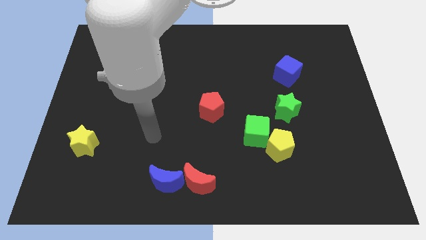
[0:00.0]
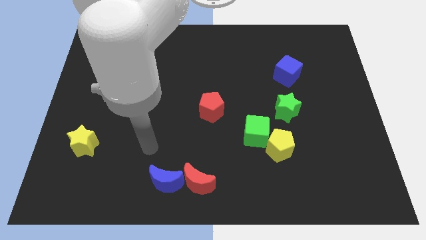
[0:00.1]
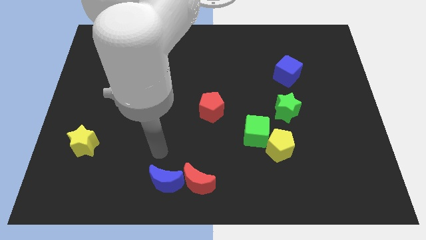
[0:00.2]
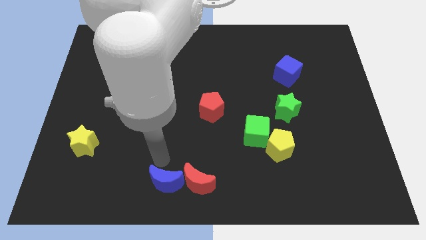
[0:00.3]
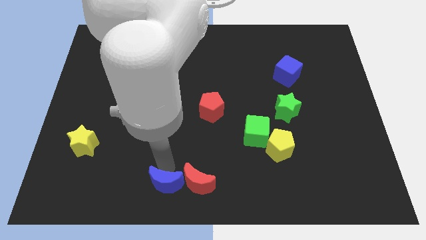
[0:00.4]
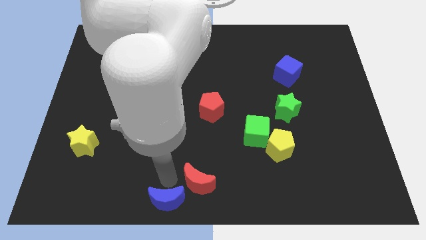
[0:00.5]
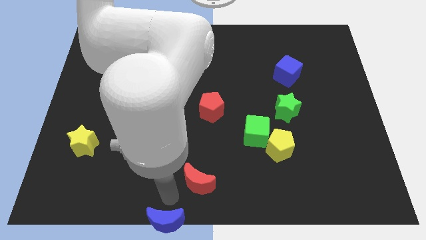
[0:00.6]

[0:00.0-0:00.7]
separate the red moon from the blue moon

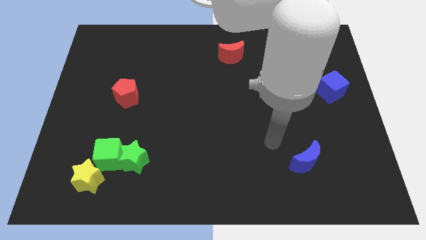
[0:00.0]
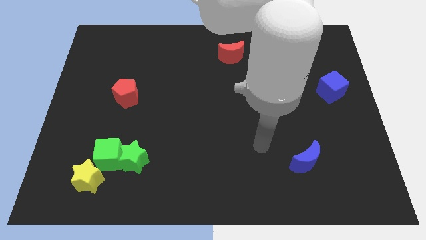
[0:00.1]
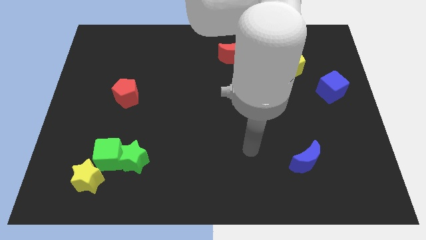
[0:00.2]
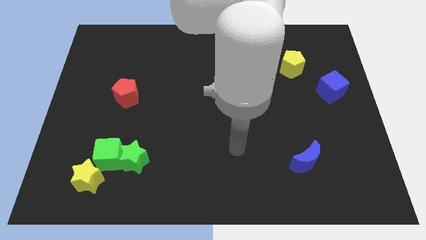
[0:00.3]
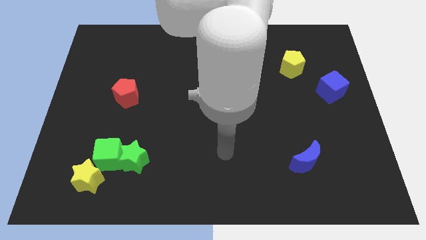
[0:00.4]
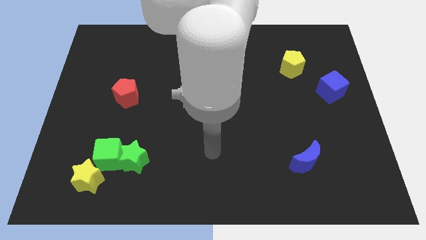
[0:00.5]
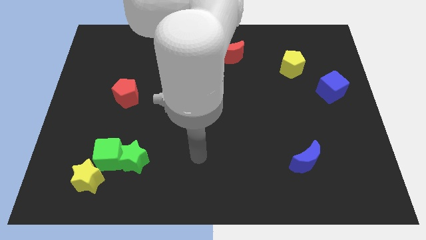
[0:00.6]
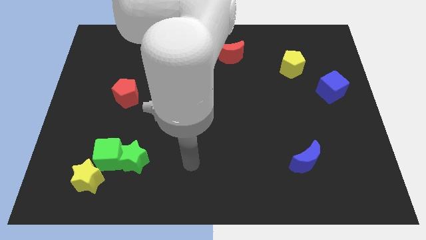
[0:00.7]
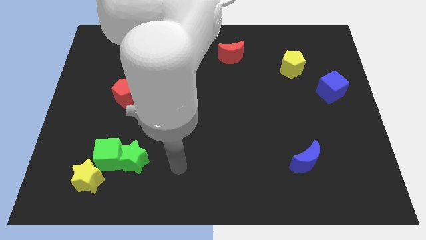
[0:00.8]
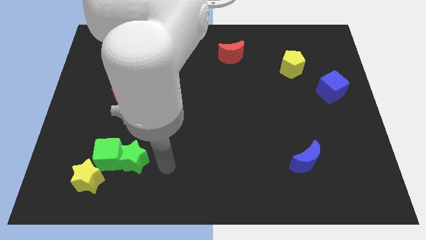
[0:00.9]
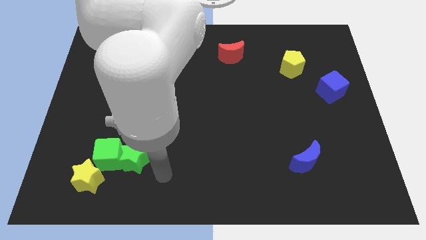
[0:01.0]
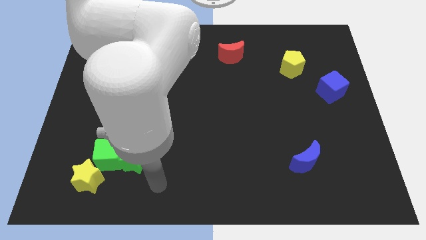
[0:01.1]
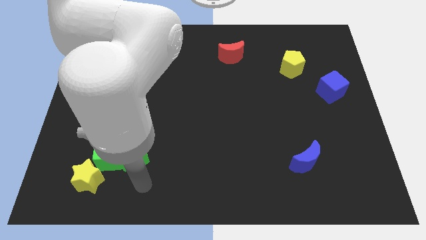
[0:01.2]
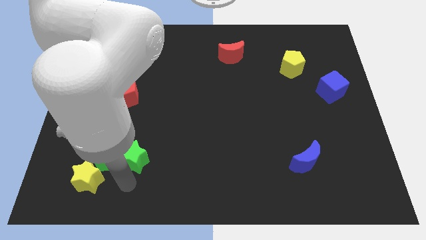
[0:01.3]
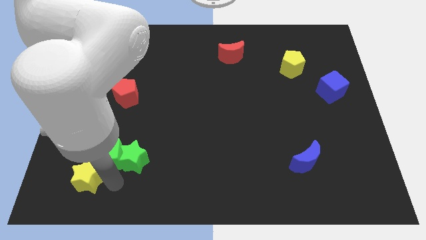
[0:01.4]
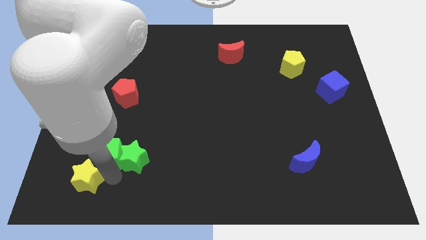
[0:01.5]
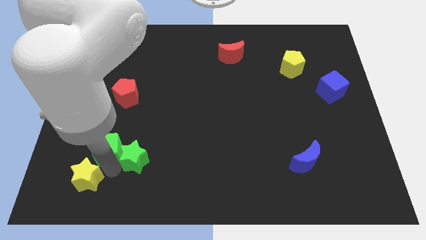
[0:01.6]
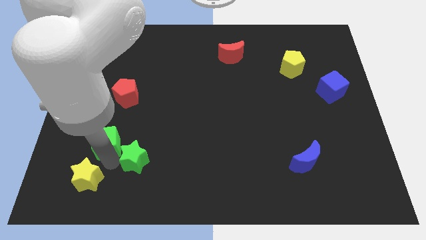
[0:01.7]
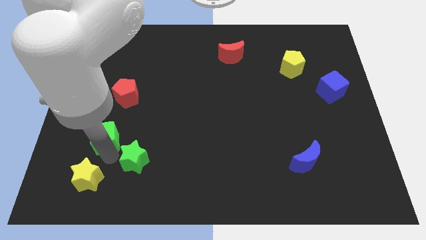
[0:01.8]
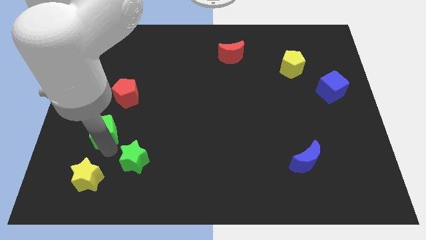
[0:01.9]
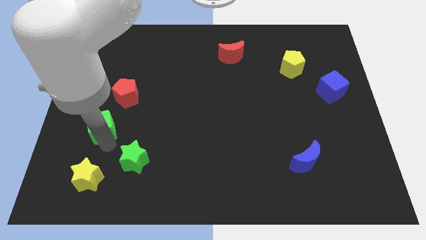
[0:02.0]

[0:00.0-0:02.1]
move the green cube away from the green star and yellow star

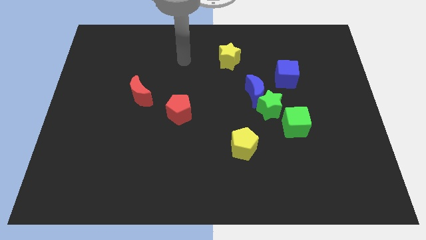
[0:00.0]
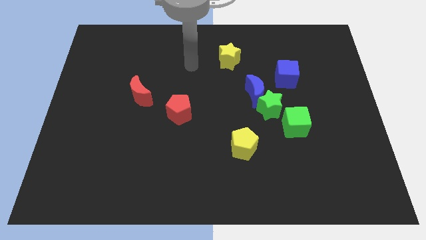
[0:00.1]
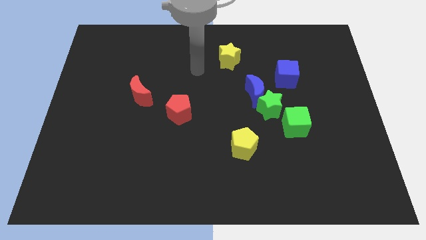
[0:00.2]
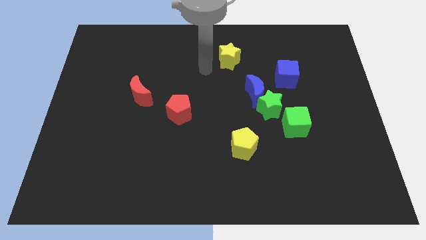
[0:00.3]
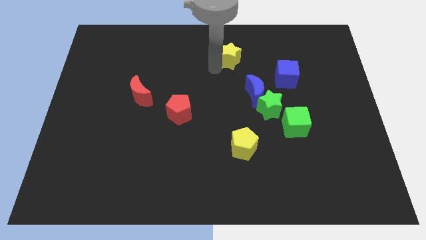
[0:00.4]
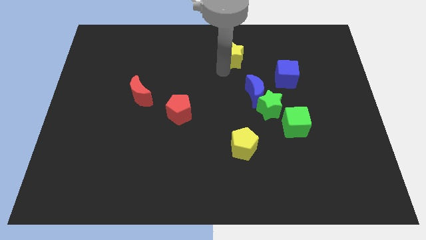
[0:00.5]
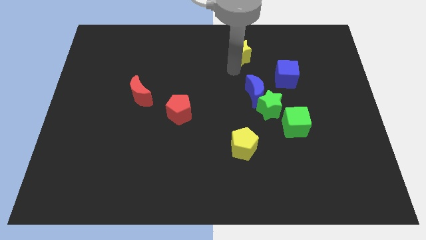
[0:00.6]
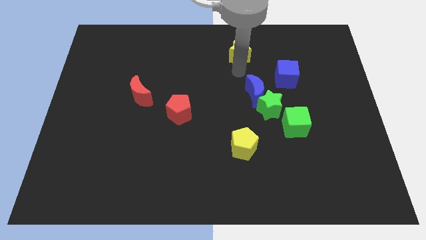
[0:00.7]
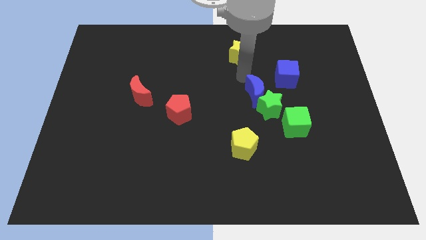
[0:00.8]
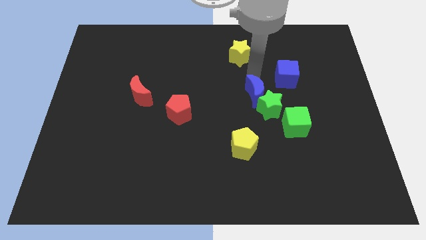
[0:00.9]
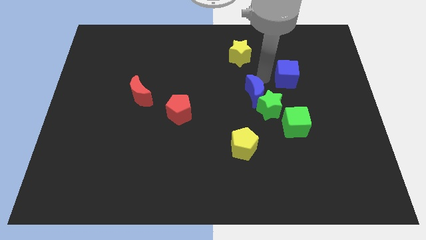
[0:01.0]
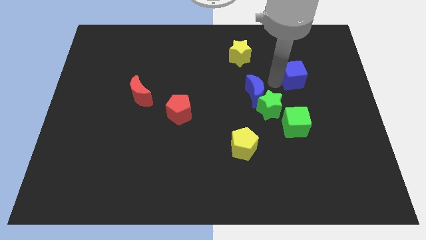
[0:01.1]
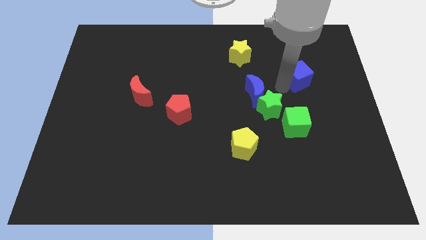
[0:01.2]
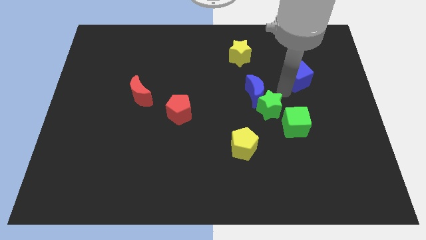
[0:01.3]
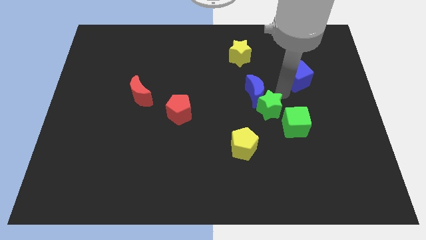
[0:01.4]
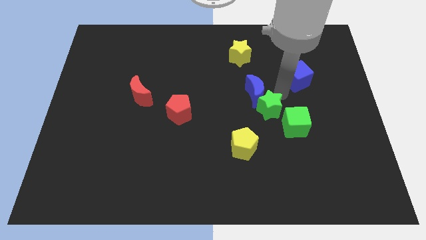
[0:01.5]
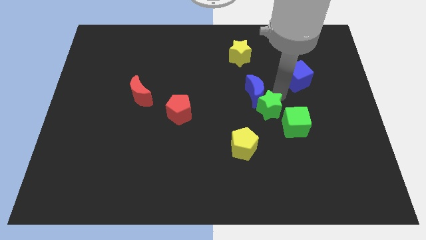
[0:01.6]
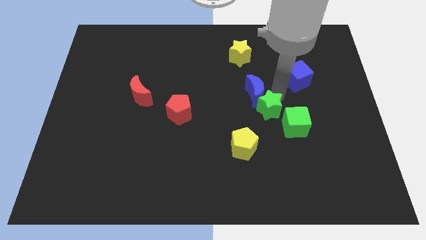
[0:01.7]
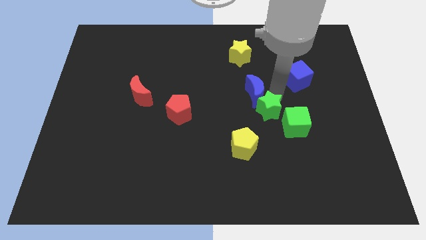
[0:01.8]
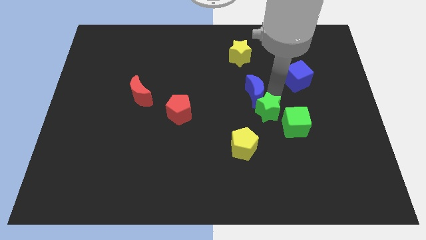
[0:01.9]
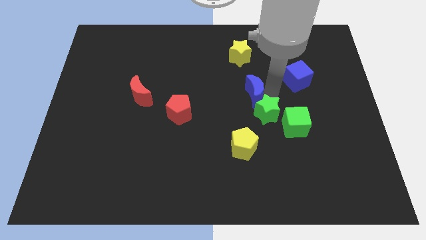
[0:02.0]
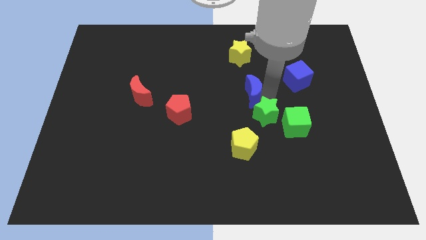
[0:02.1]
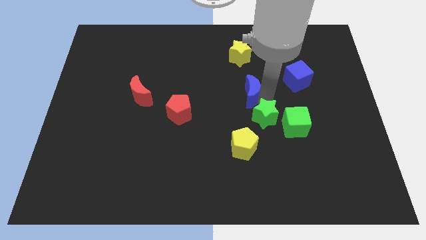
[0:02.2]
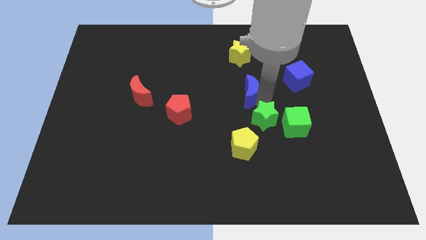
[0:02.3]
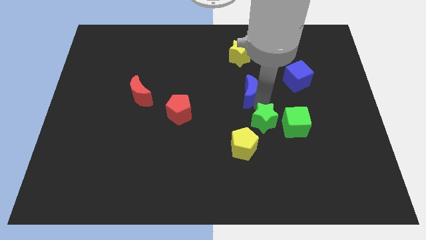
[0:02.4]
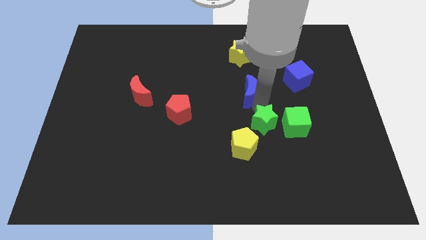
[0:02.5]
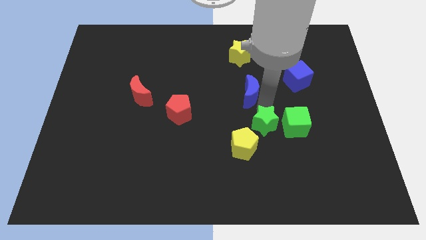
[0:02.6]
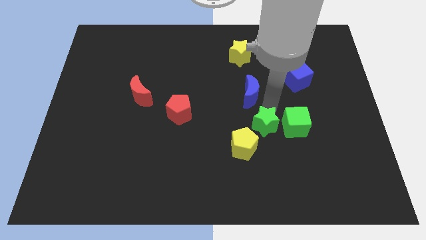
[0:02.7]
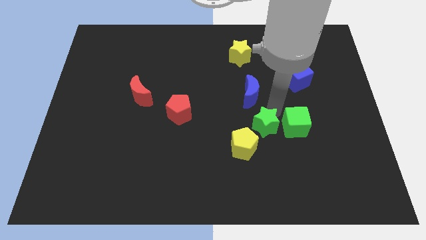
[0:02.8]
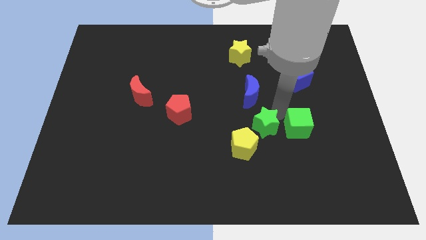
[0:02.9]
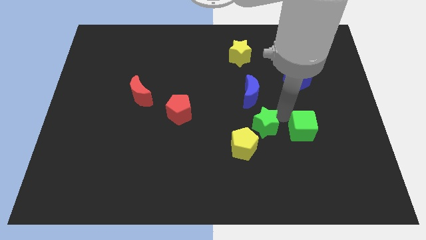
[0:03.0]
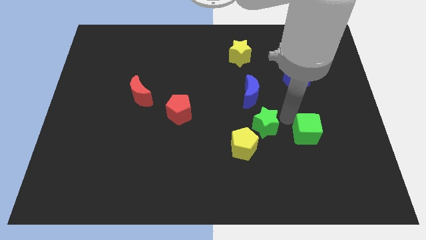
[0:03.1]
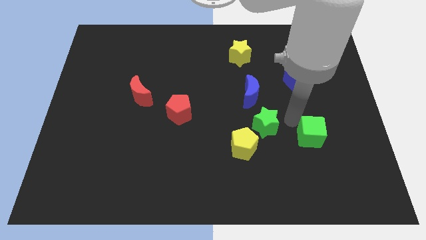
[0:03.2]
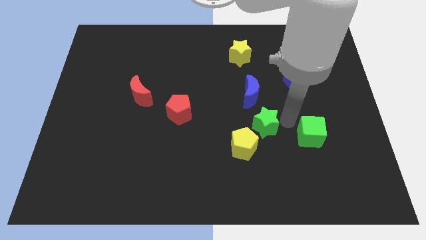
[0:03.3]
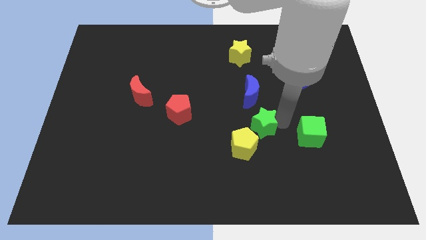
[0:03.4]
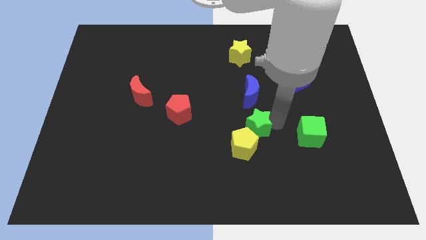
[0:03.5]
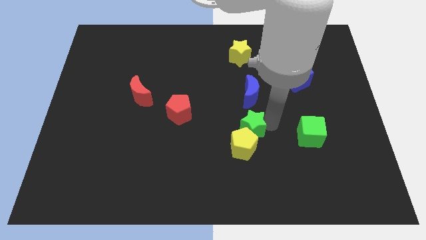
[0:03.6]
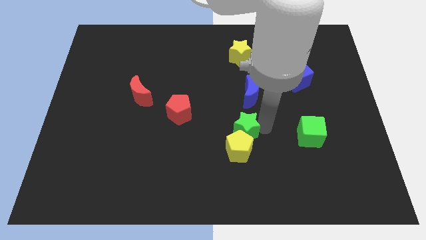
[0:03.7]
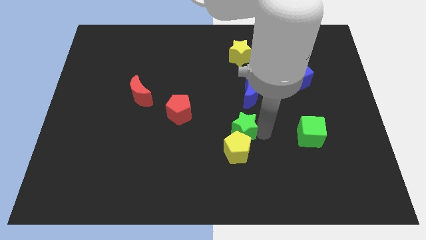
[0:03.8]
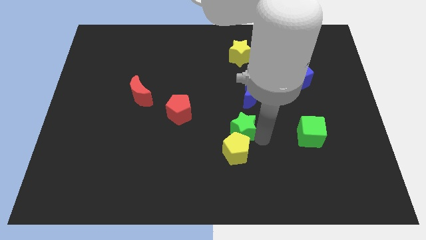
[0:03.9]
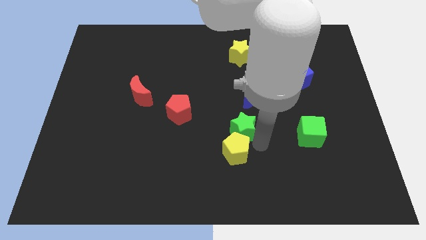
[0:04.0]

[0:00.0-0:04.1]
move the green star away from the blue moon and green cube

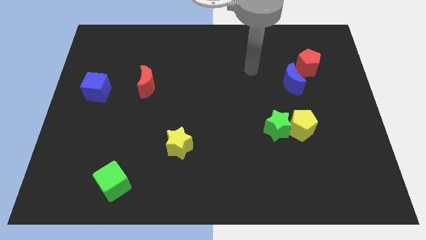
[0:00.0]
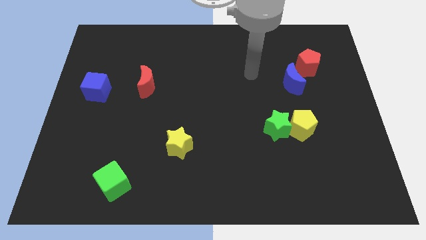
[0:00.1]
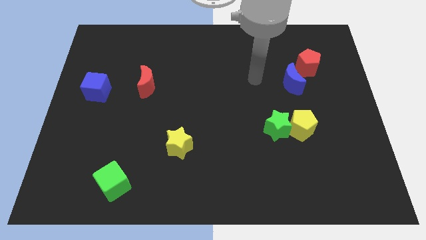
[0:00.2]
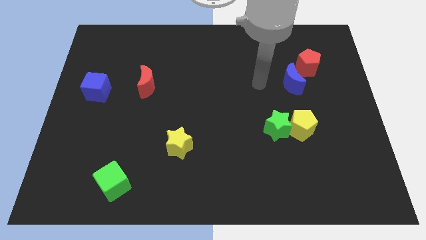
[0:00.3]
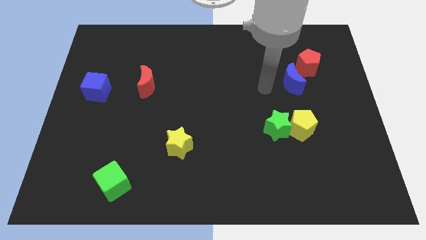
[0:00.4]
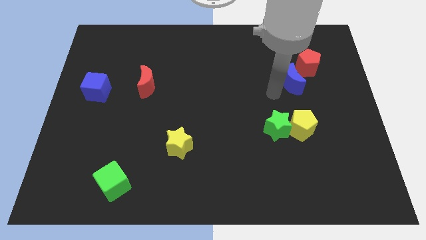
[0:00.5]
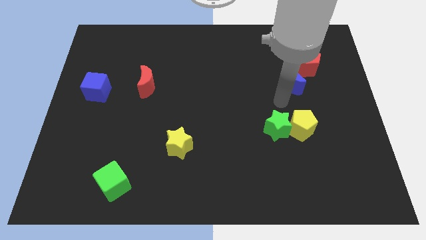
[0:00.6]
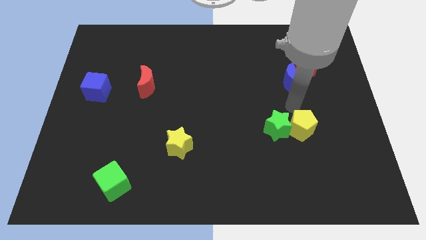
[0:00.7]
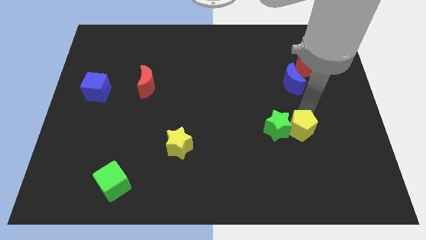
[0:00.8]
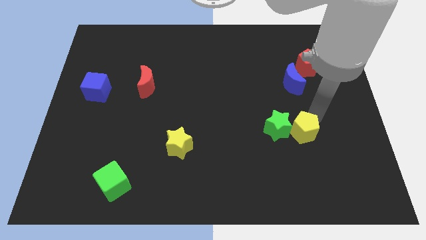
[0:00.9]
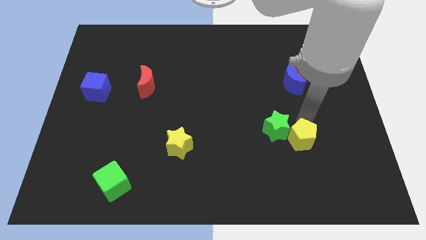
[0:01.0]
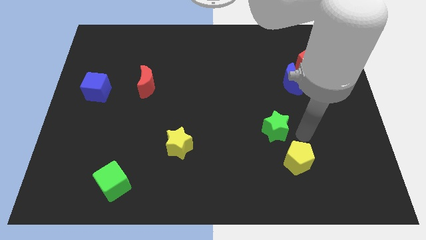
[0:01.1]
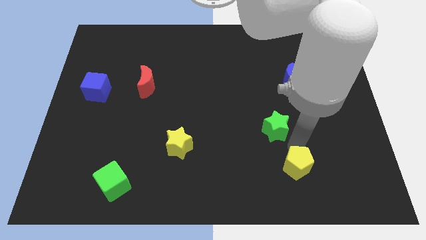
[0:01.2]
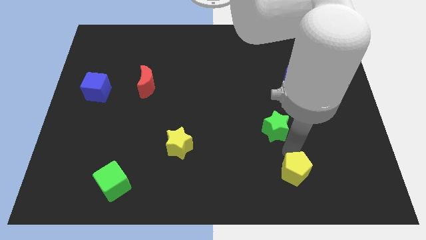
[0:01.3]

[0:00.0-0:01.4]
separate the green star from the yellow pentagon

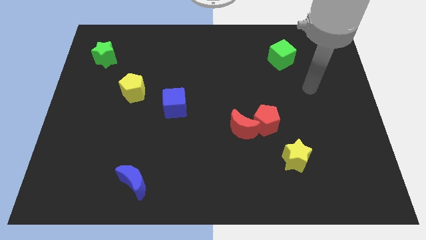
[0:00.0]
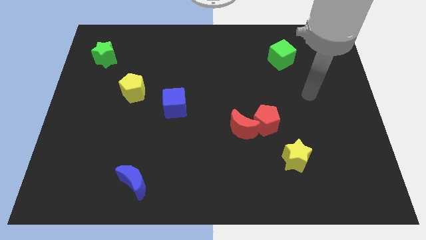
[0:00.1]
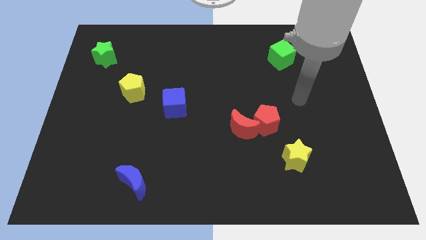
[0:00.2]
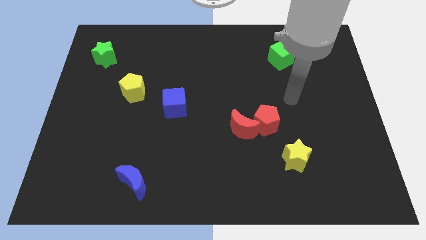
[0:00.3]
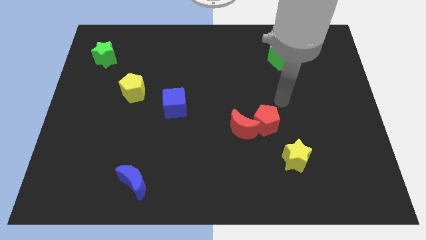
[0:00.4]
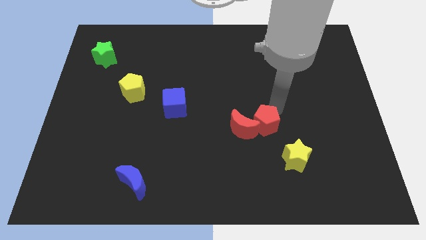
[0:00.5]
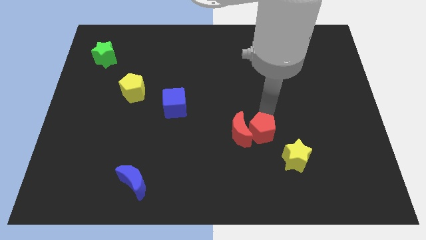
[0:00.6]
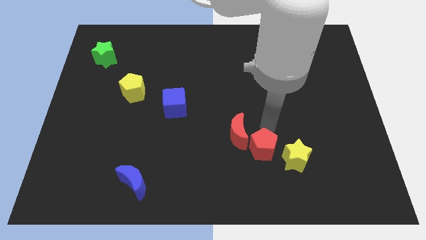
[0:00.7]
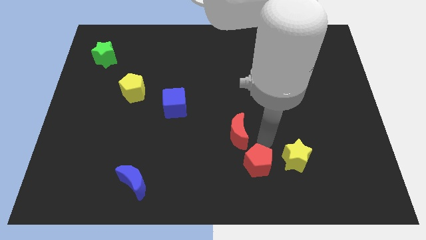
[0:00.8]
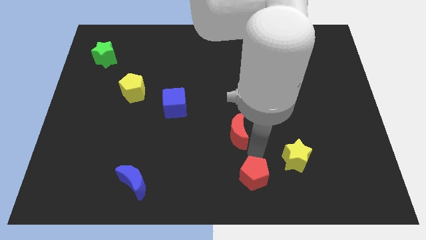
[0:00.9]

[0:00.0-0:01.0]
pull the red moon apart from the red pentagon
